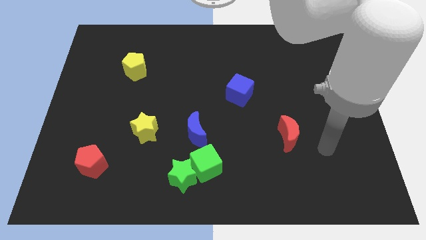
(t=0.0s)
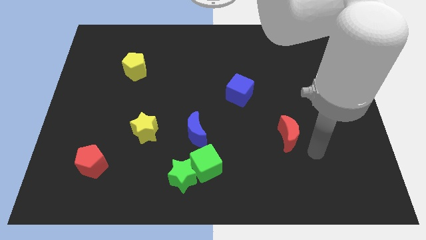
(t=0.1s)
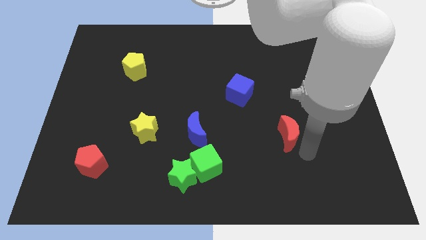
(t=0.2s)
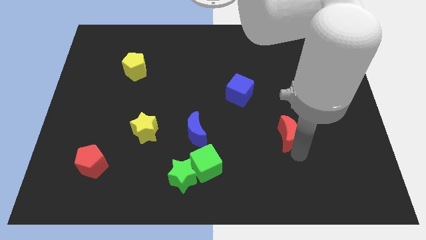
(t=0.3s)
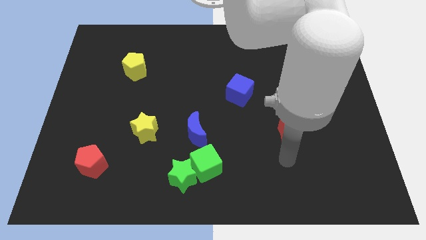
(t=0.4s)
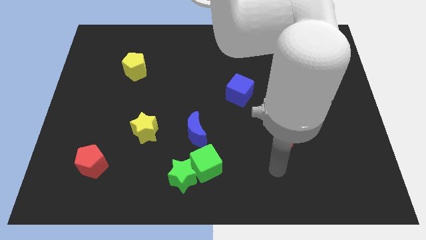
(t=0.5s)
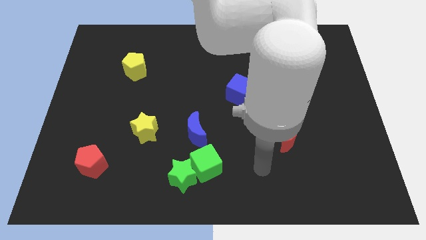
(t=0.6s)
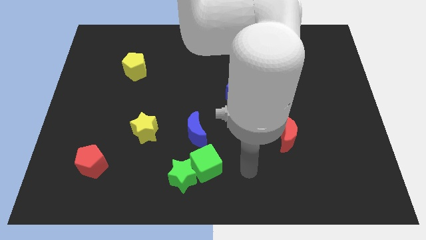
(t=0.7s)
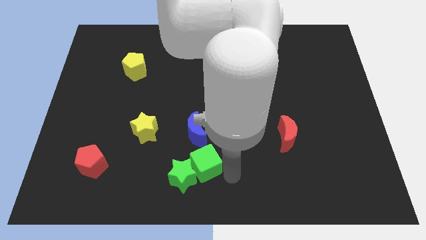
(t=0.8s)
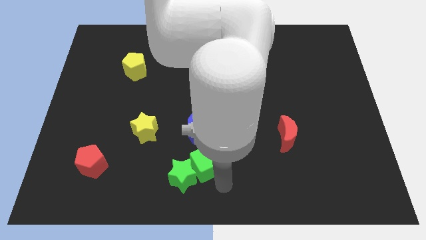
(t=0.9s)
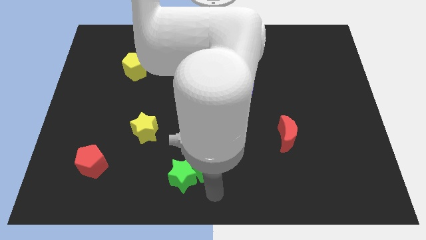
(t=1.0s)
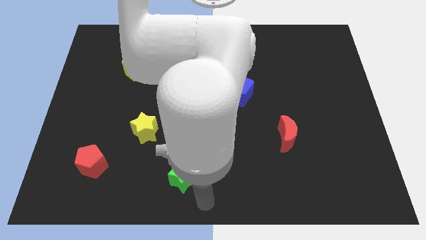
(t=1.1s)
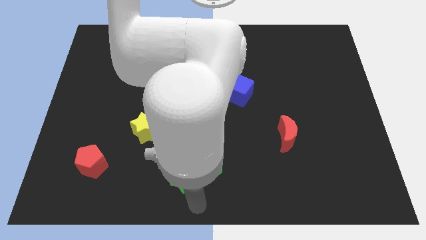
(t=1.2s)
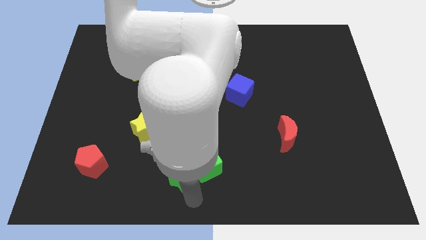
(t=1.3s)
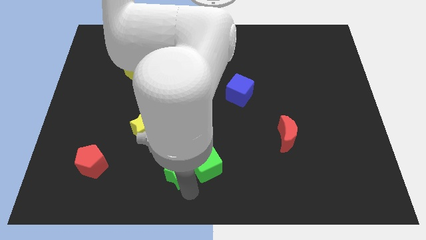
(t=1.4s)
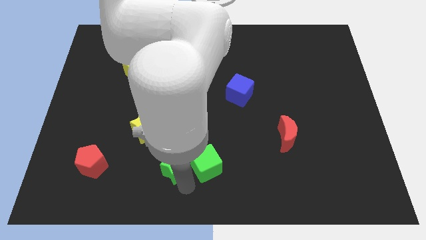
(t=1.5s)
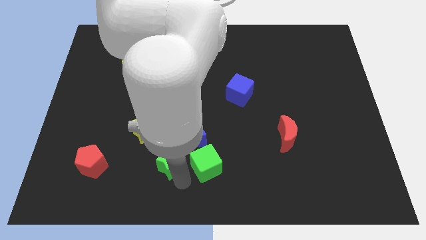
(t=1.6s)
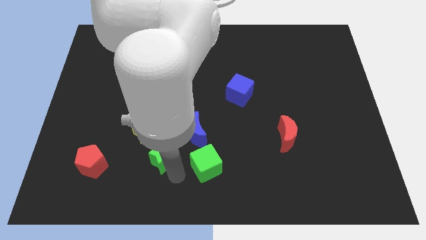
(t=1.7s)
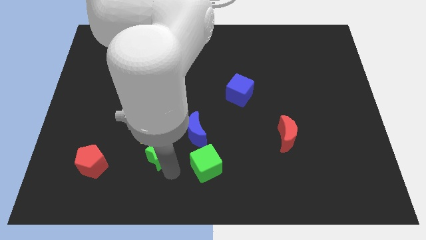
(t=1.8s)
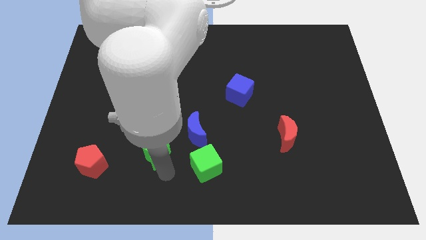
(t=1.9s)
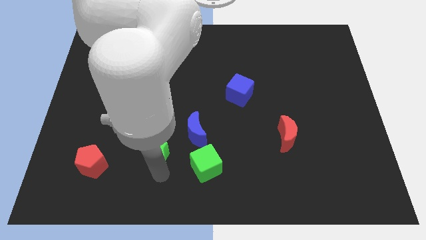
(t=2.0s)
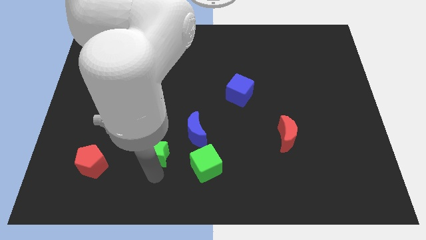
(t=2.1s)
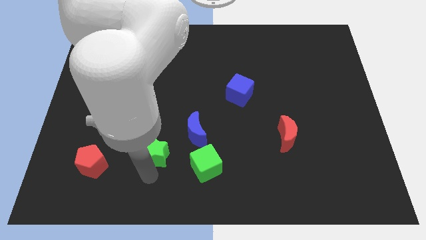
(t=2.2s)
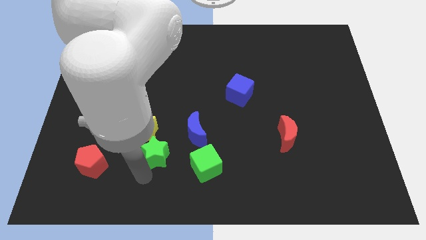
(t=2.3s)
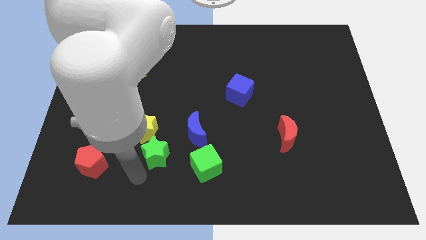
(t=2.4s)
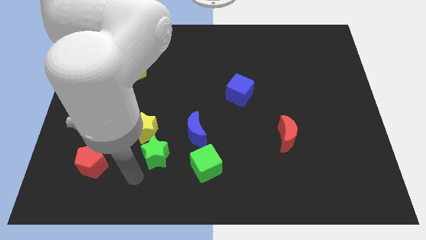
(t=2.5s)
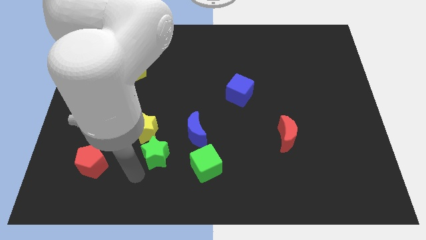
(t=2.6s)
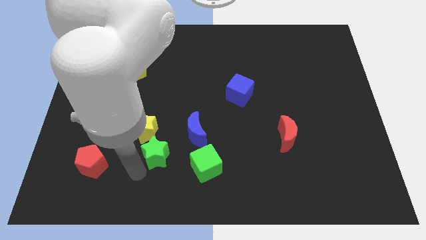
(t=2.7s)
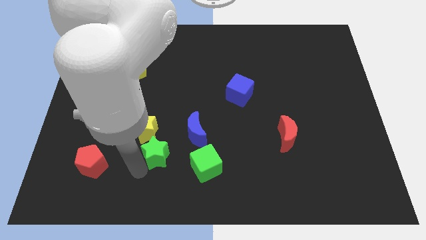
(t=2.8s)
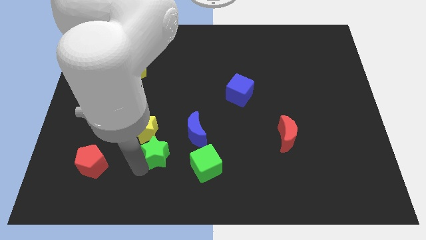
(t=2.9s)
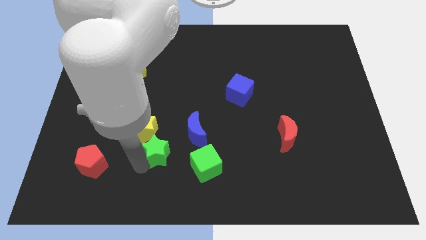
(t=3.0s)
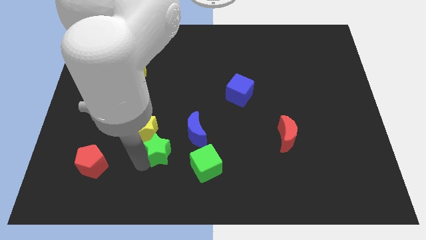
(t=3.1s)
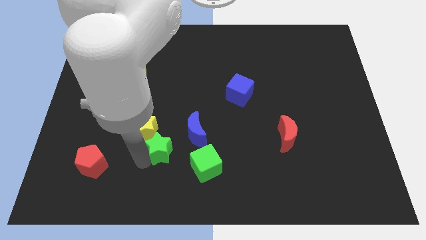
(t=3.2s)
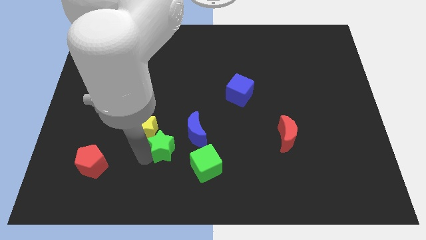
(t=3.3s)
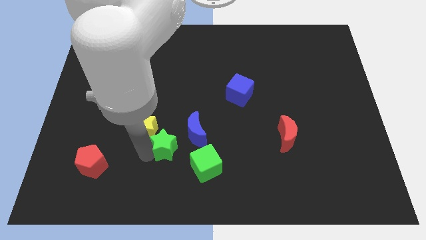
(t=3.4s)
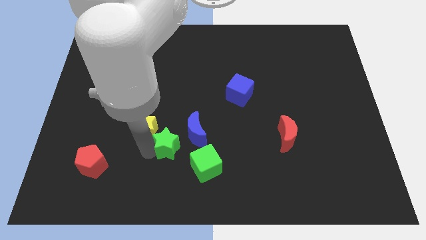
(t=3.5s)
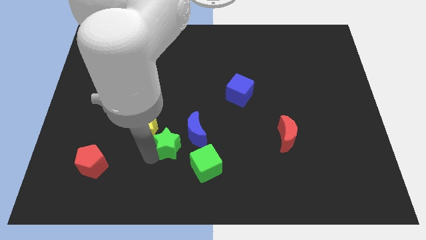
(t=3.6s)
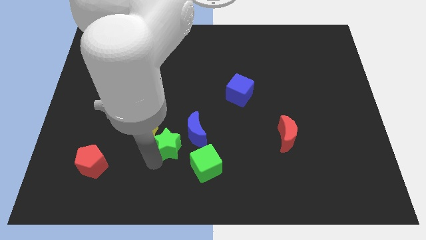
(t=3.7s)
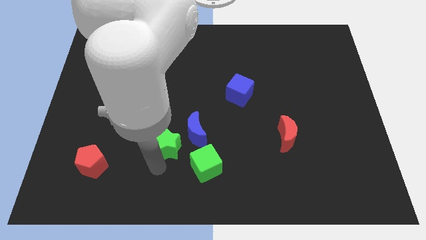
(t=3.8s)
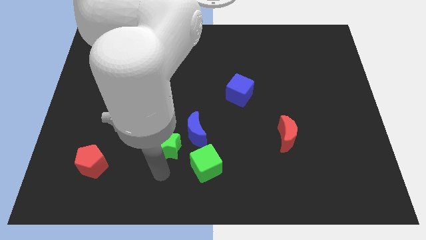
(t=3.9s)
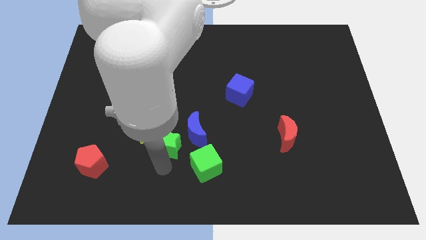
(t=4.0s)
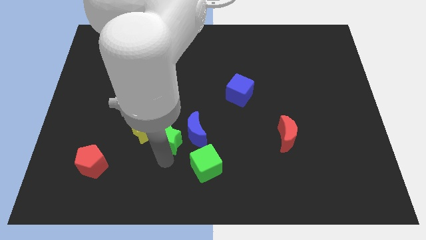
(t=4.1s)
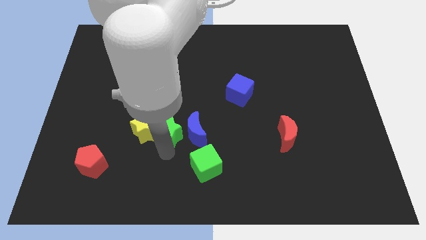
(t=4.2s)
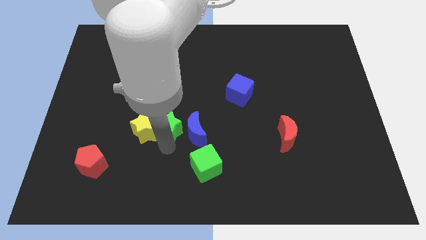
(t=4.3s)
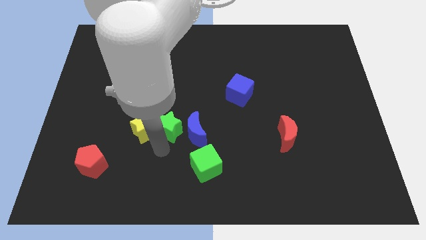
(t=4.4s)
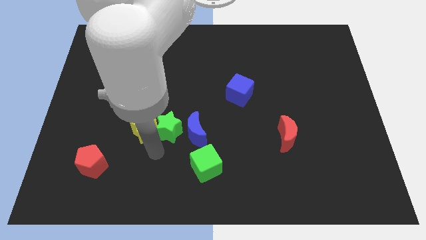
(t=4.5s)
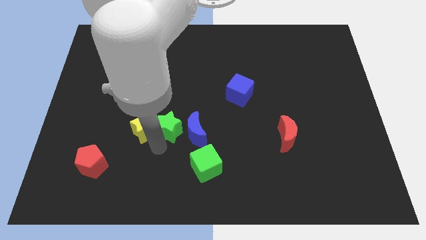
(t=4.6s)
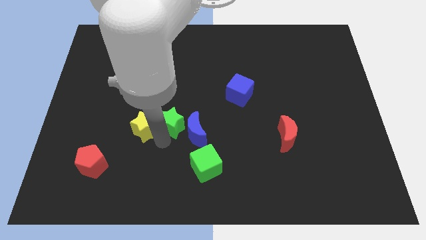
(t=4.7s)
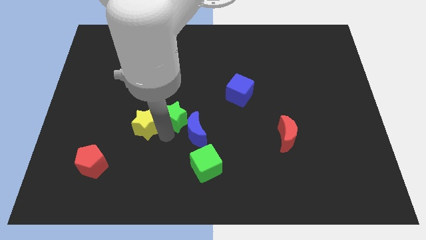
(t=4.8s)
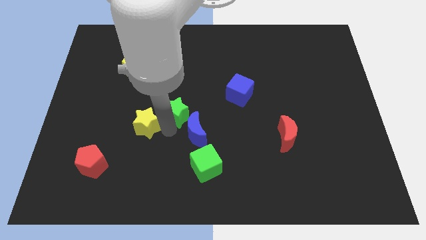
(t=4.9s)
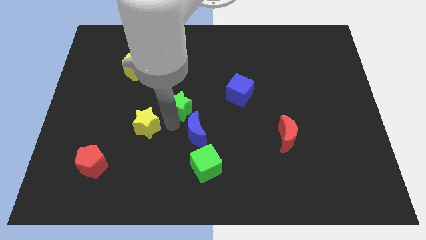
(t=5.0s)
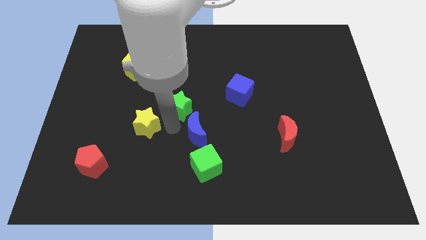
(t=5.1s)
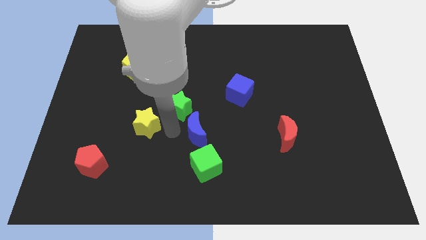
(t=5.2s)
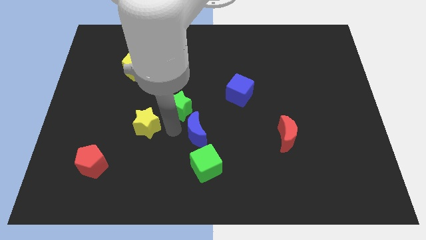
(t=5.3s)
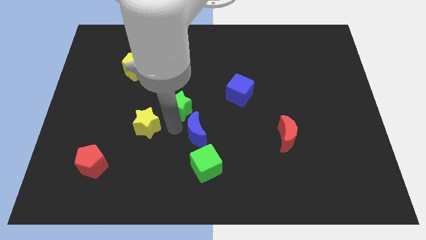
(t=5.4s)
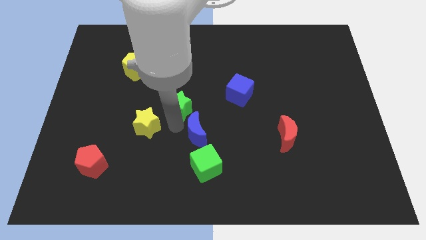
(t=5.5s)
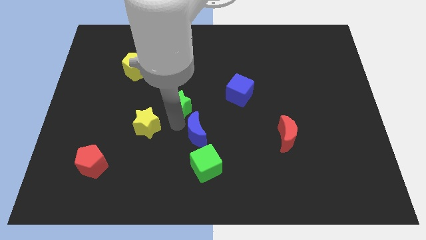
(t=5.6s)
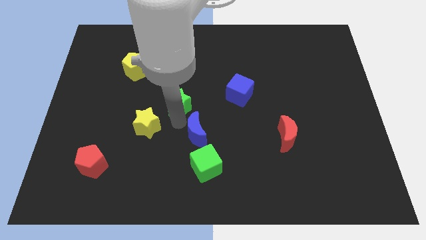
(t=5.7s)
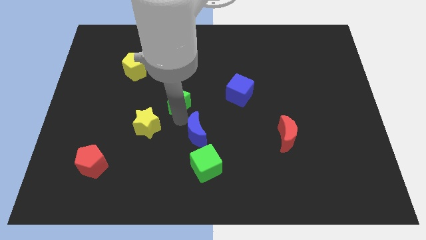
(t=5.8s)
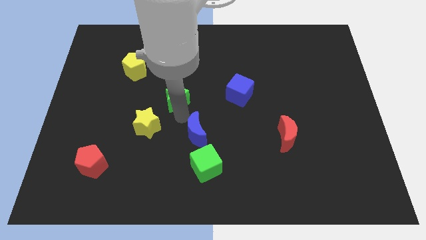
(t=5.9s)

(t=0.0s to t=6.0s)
slide the green star up

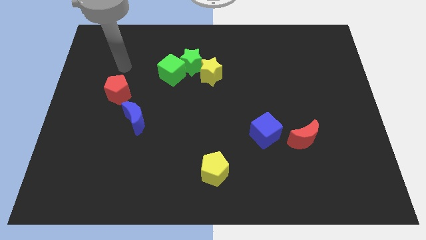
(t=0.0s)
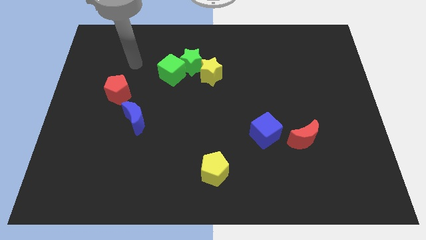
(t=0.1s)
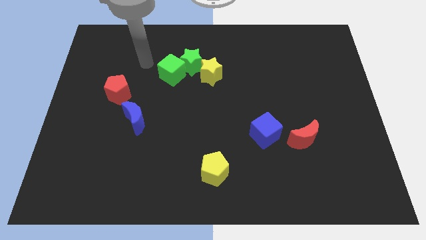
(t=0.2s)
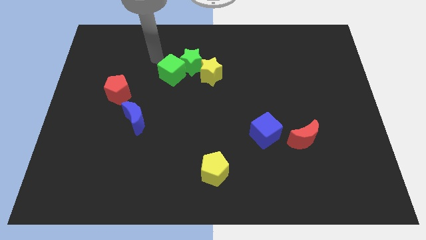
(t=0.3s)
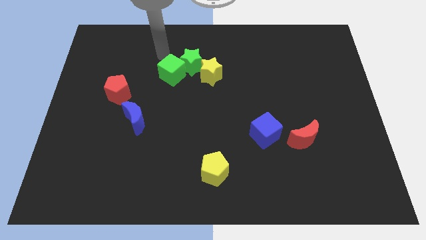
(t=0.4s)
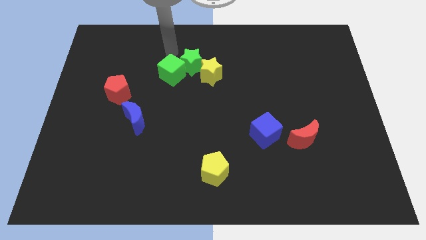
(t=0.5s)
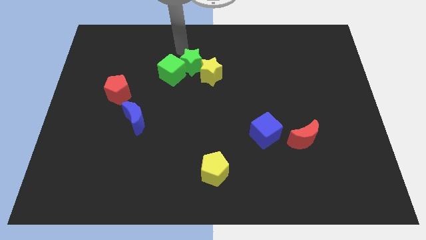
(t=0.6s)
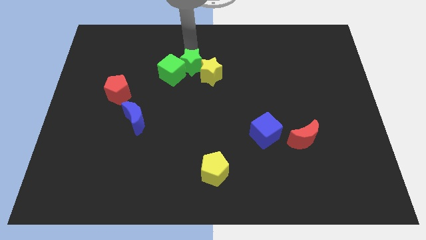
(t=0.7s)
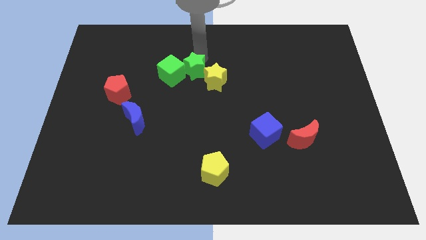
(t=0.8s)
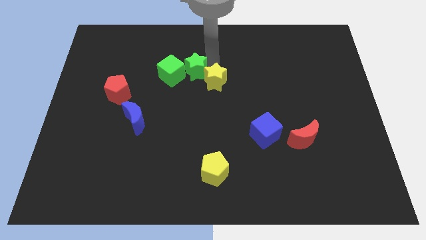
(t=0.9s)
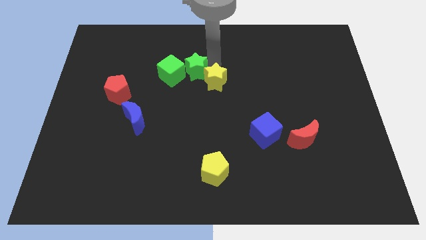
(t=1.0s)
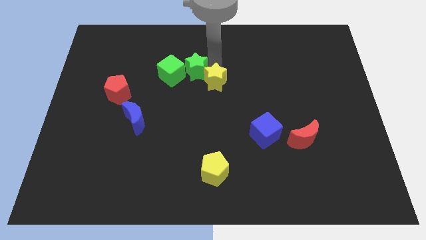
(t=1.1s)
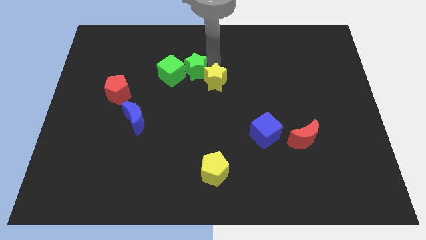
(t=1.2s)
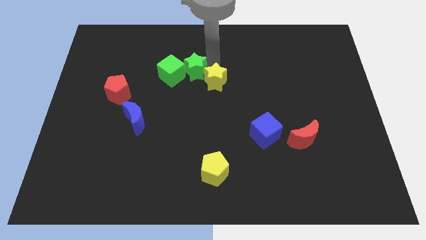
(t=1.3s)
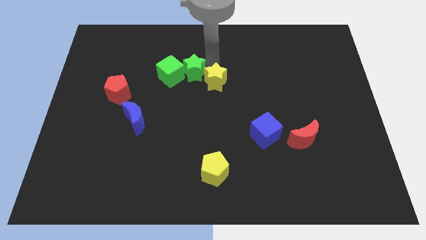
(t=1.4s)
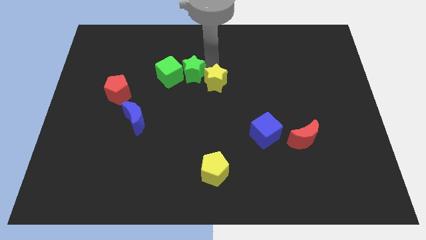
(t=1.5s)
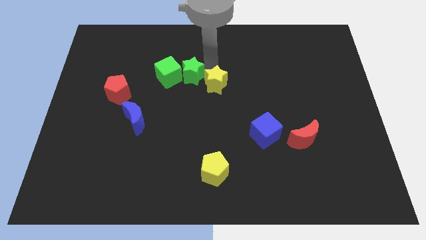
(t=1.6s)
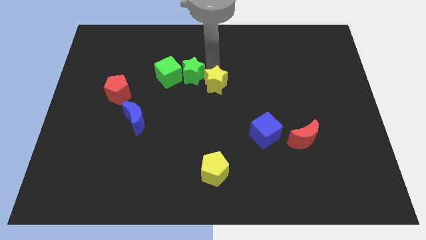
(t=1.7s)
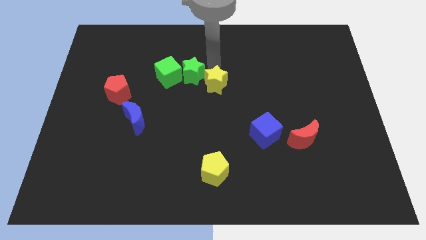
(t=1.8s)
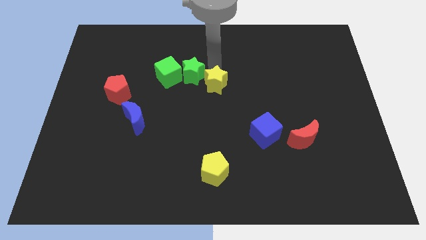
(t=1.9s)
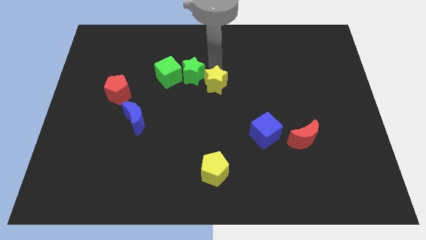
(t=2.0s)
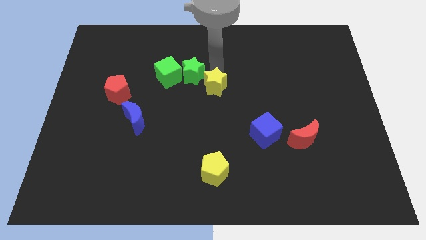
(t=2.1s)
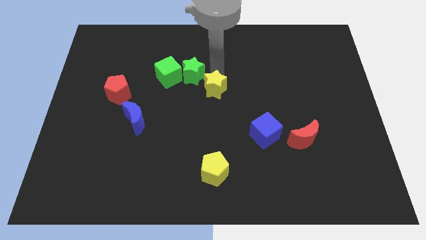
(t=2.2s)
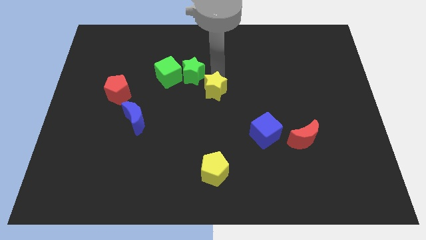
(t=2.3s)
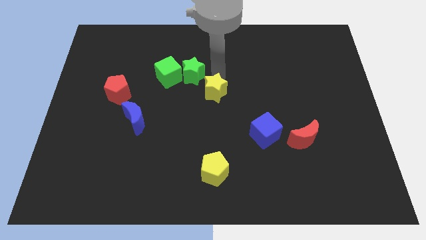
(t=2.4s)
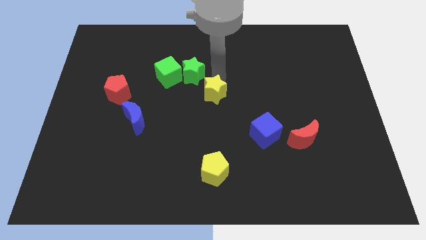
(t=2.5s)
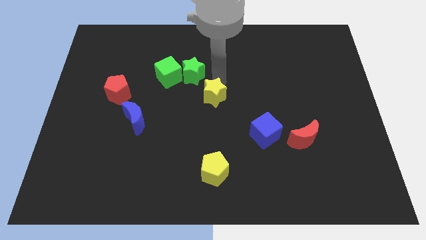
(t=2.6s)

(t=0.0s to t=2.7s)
move the yellow star downwards a little

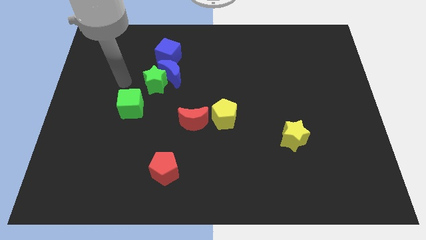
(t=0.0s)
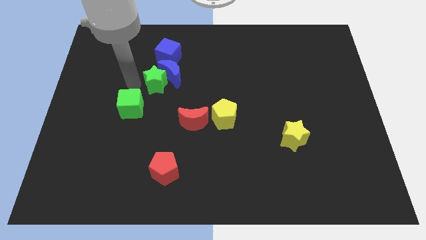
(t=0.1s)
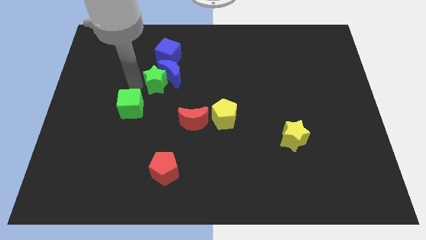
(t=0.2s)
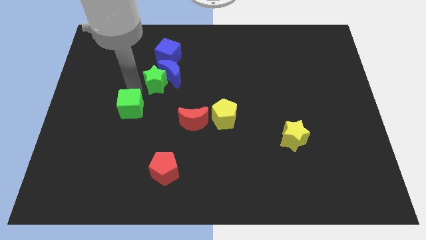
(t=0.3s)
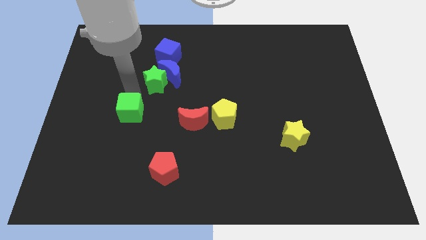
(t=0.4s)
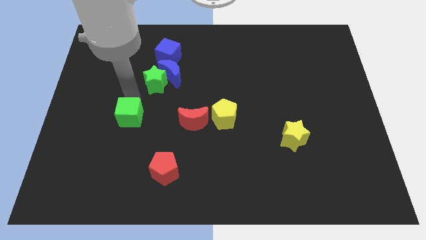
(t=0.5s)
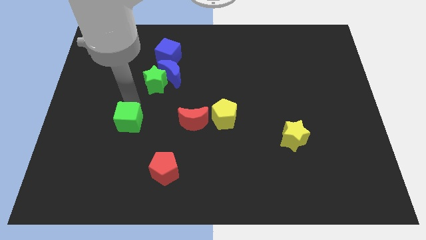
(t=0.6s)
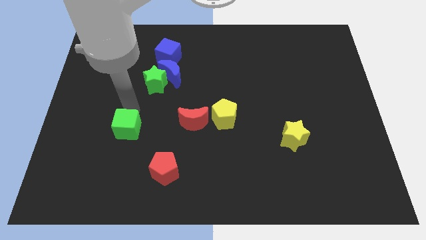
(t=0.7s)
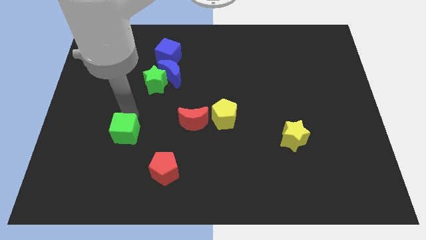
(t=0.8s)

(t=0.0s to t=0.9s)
push the green cube down a bit
